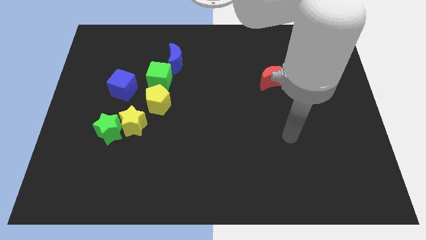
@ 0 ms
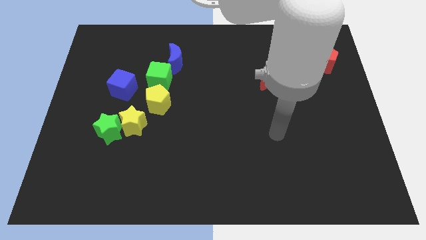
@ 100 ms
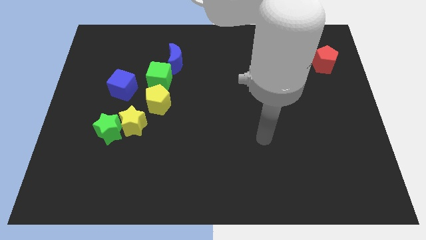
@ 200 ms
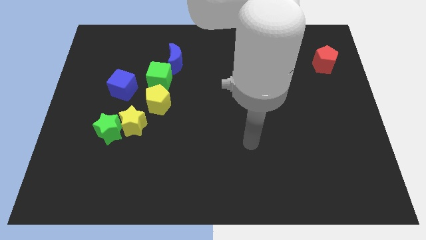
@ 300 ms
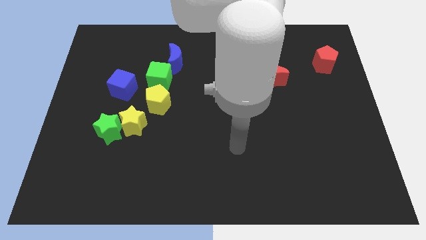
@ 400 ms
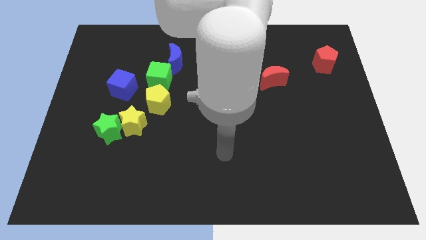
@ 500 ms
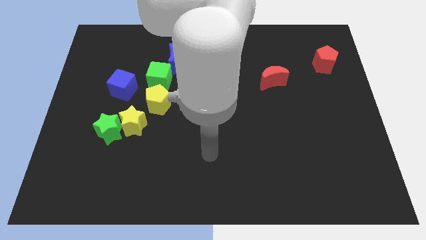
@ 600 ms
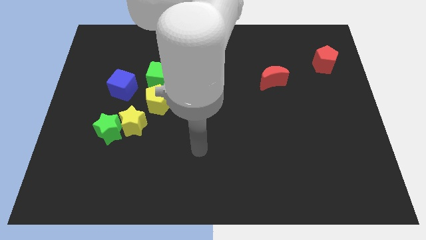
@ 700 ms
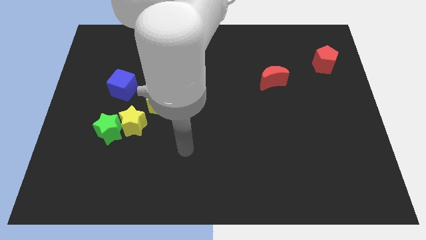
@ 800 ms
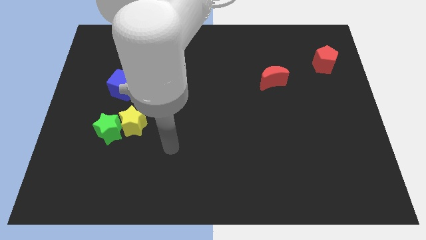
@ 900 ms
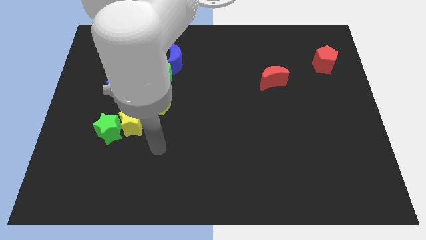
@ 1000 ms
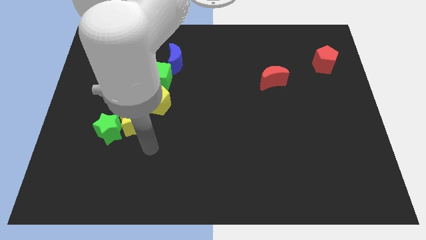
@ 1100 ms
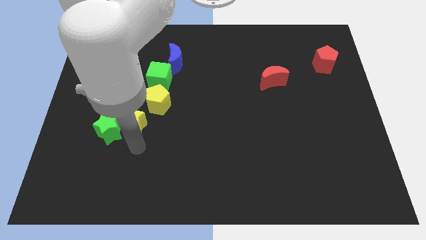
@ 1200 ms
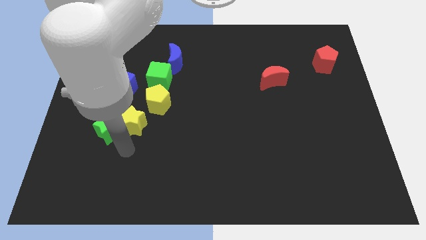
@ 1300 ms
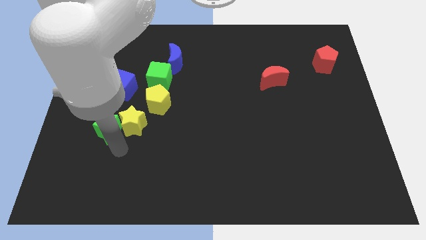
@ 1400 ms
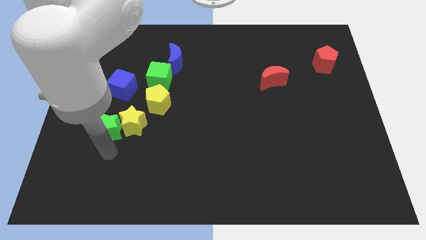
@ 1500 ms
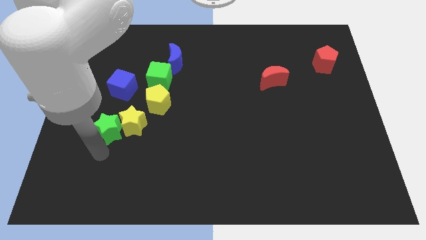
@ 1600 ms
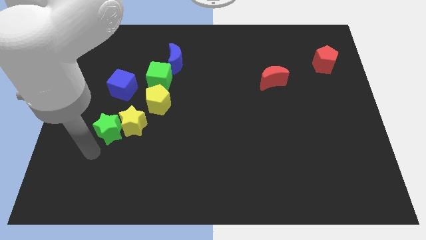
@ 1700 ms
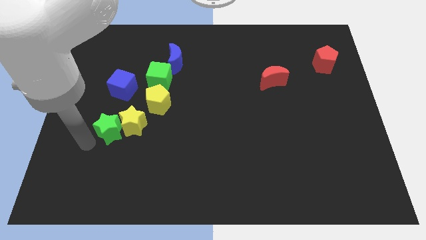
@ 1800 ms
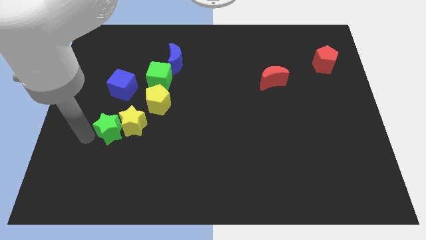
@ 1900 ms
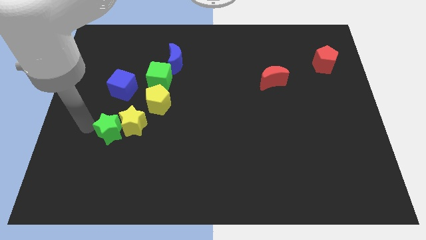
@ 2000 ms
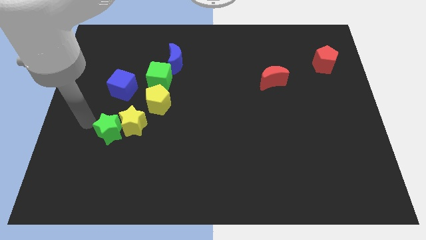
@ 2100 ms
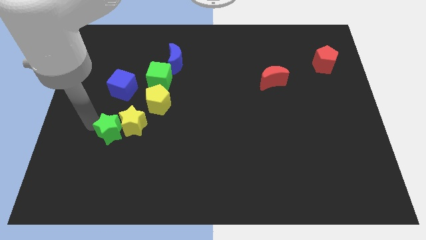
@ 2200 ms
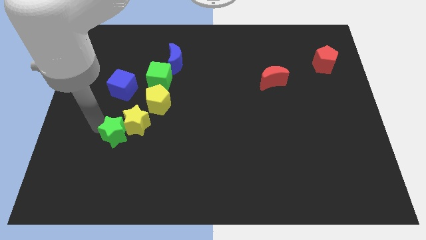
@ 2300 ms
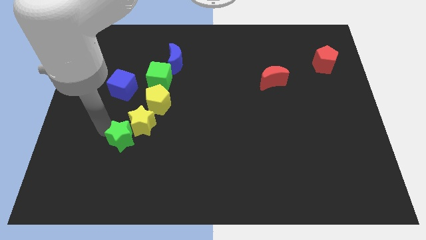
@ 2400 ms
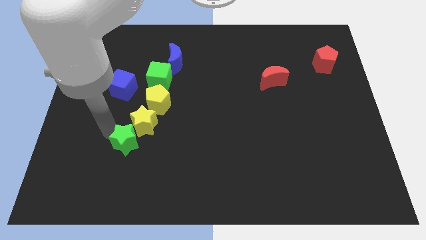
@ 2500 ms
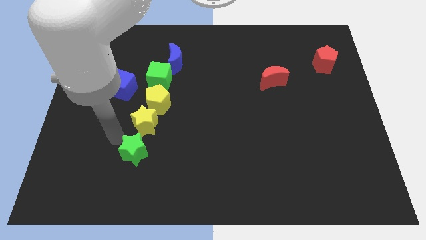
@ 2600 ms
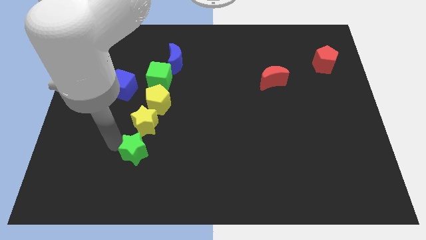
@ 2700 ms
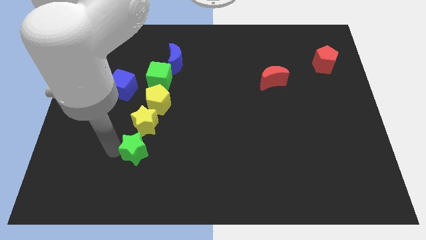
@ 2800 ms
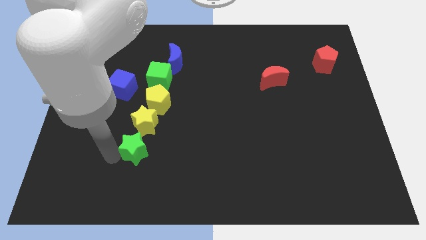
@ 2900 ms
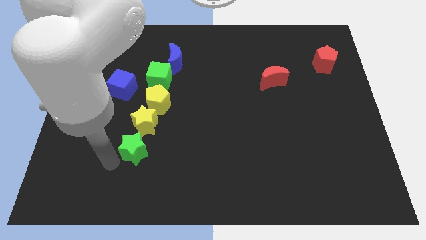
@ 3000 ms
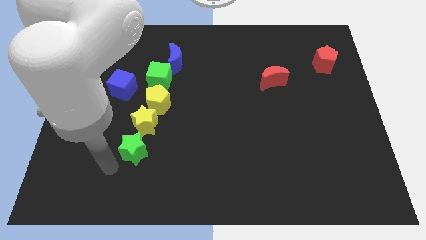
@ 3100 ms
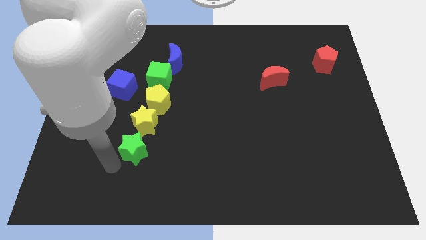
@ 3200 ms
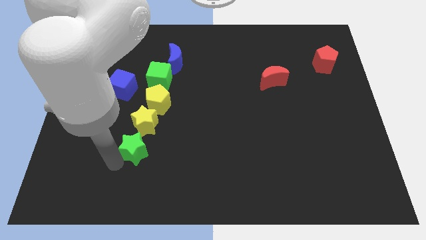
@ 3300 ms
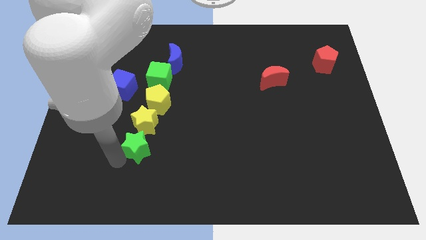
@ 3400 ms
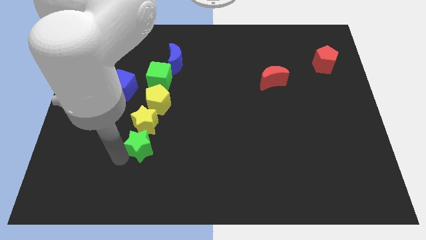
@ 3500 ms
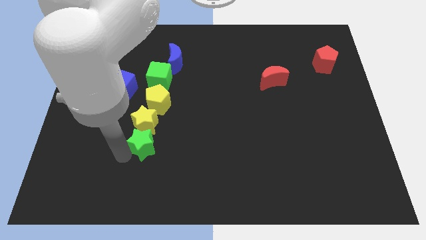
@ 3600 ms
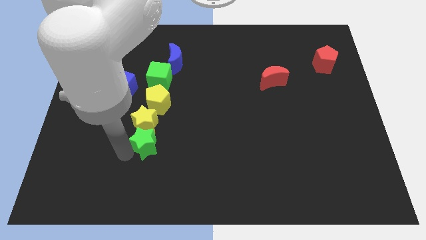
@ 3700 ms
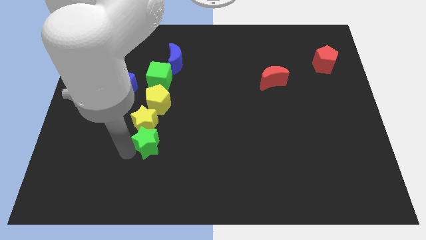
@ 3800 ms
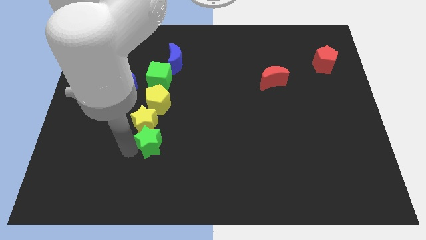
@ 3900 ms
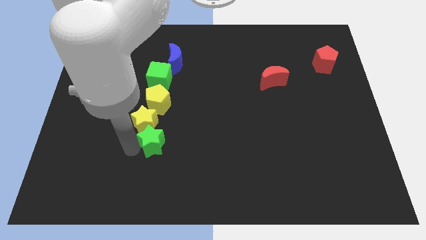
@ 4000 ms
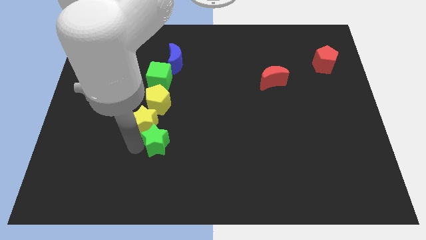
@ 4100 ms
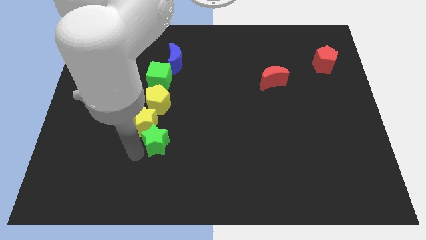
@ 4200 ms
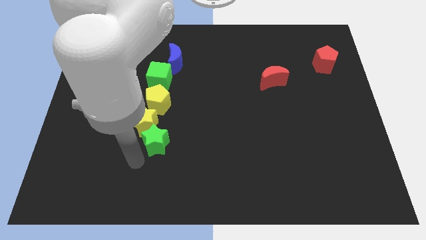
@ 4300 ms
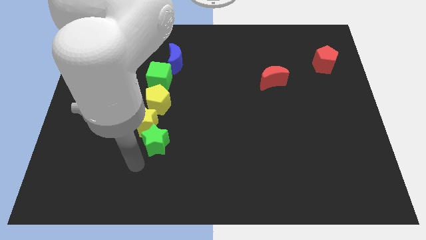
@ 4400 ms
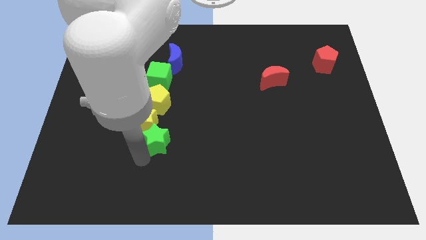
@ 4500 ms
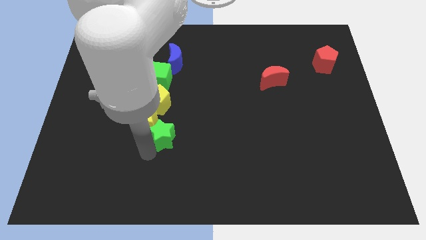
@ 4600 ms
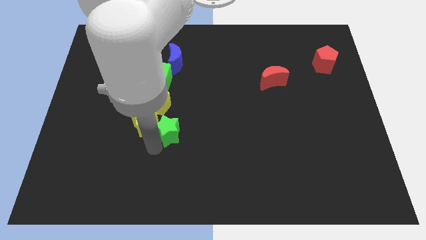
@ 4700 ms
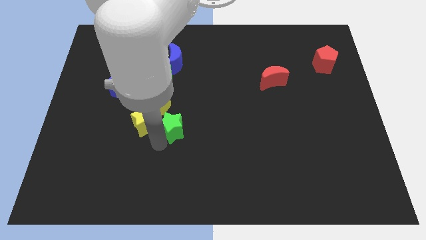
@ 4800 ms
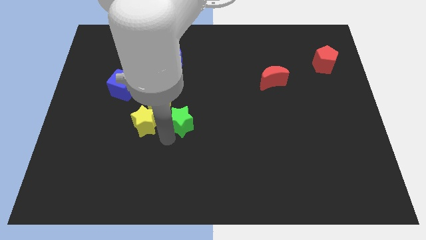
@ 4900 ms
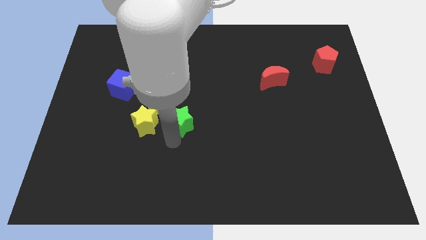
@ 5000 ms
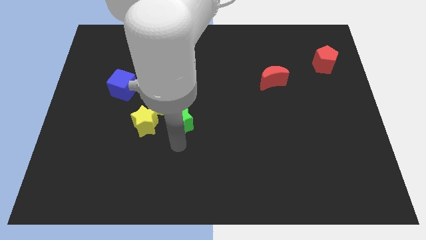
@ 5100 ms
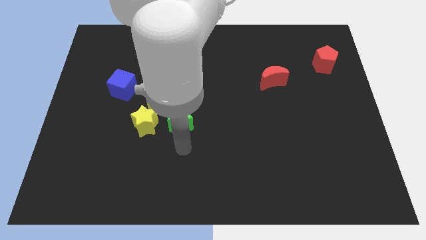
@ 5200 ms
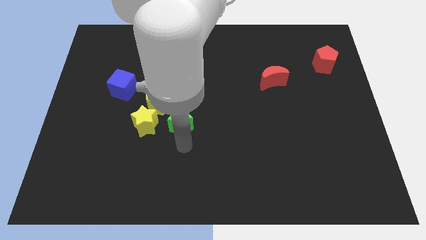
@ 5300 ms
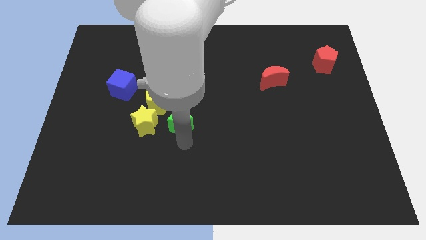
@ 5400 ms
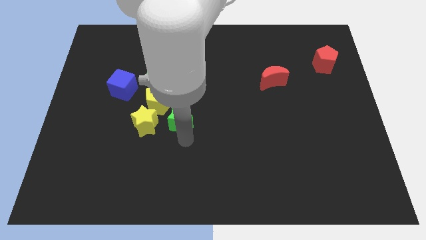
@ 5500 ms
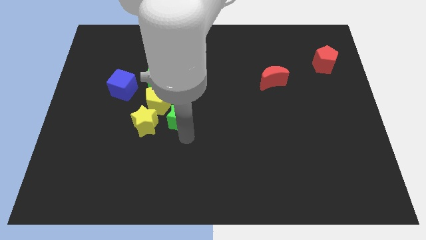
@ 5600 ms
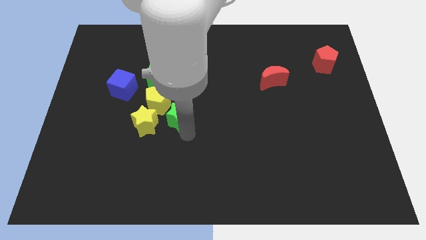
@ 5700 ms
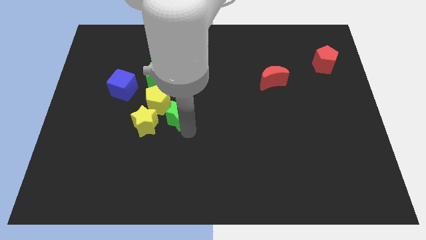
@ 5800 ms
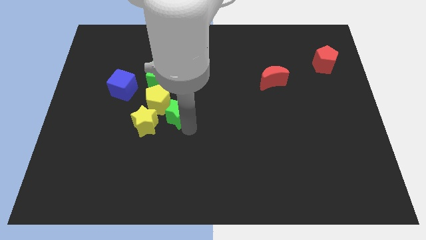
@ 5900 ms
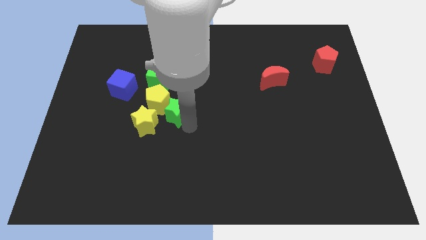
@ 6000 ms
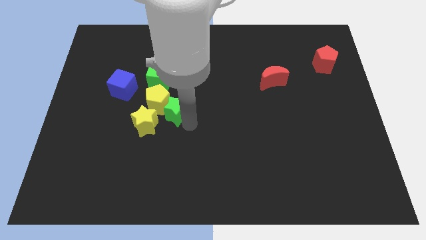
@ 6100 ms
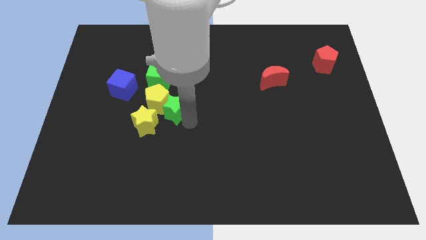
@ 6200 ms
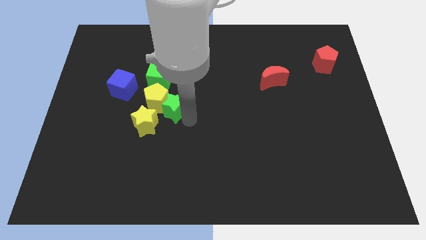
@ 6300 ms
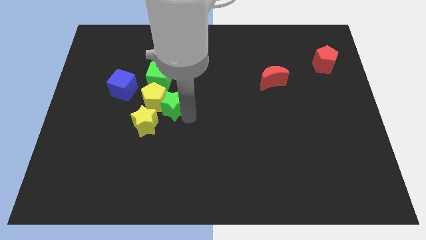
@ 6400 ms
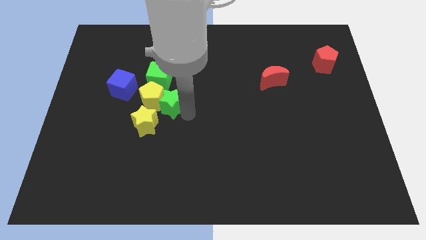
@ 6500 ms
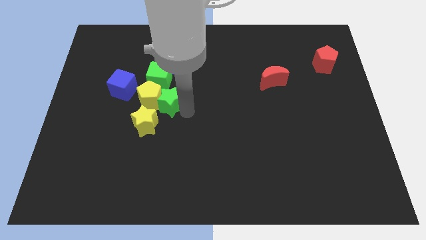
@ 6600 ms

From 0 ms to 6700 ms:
push the green star diagonally up and to the right of the yellow pentagon
